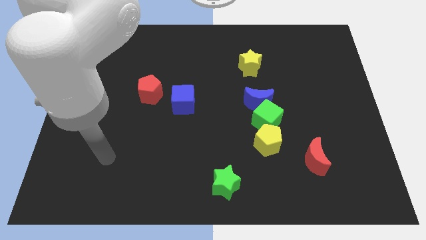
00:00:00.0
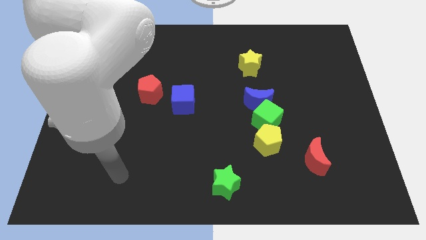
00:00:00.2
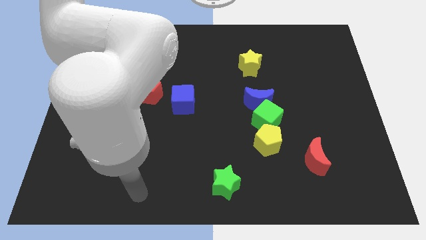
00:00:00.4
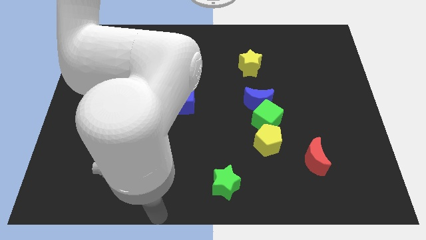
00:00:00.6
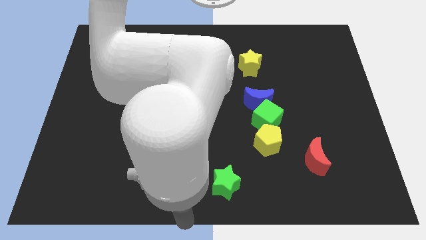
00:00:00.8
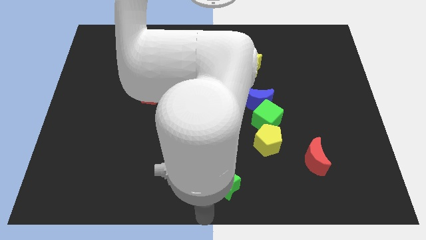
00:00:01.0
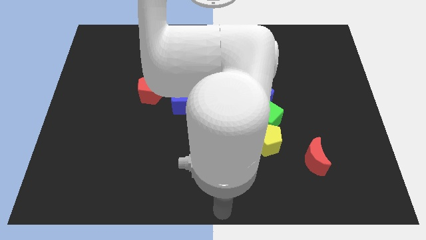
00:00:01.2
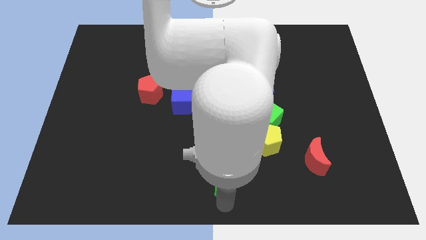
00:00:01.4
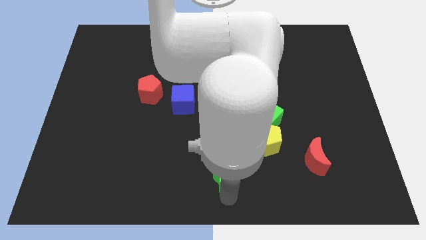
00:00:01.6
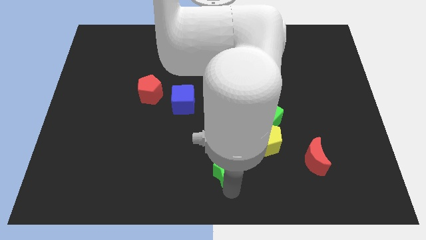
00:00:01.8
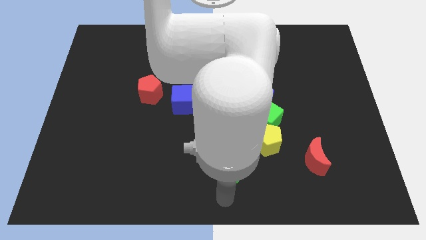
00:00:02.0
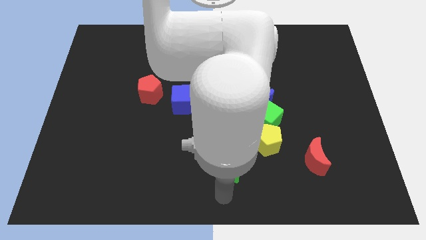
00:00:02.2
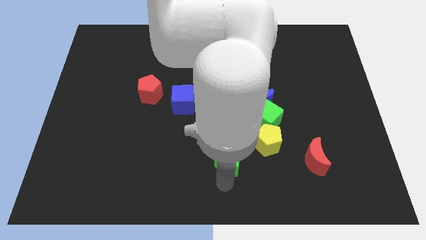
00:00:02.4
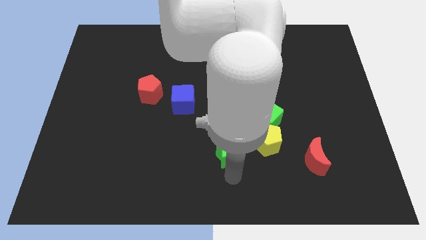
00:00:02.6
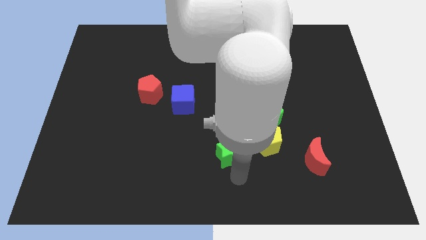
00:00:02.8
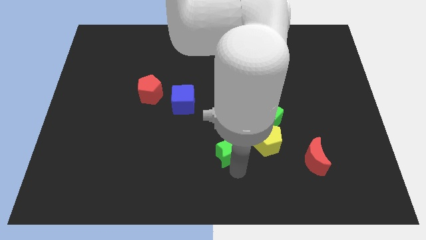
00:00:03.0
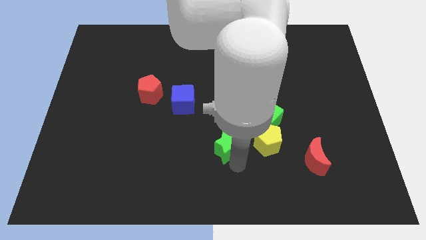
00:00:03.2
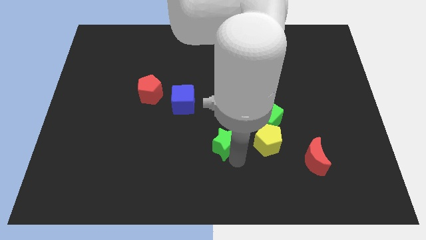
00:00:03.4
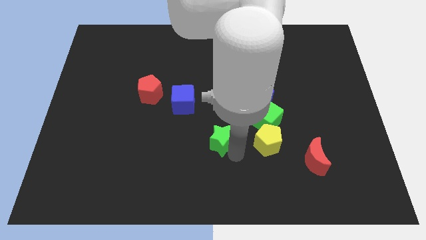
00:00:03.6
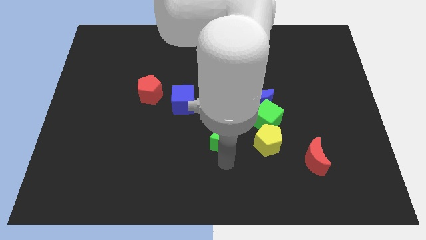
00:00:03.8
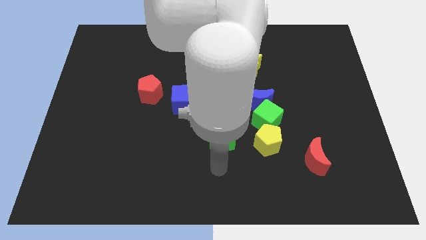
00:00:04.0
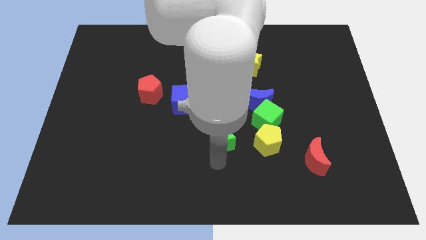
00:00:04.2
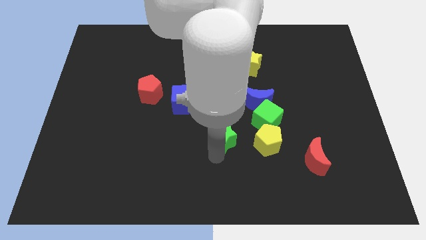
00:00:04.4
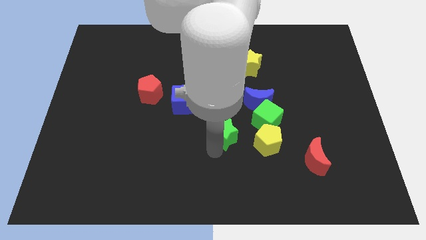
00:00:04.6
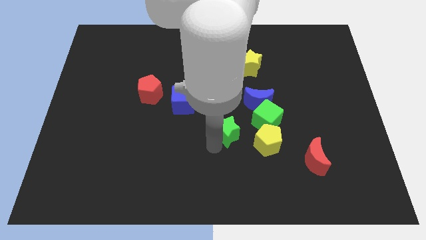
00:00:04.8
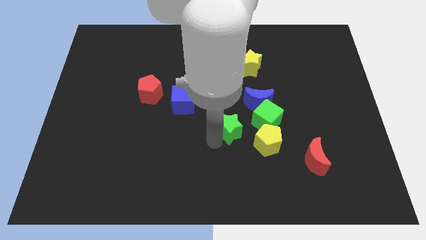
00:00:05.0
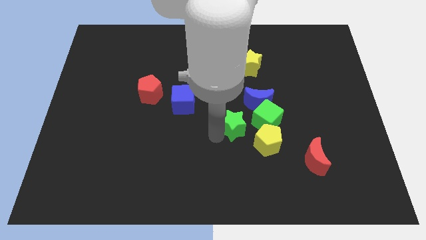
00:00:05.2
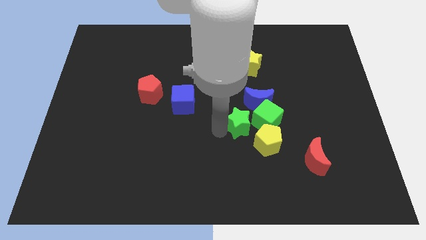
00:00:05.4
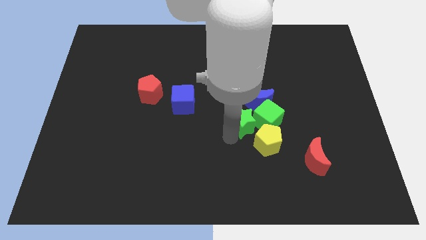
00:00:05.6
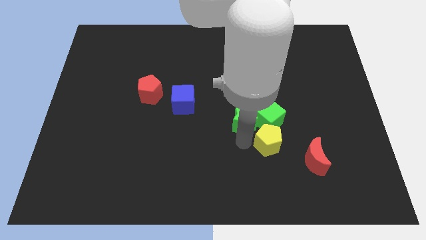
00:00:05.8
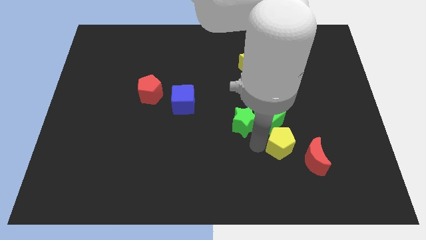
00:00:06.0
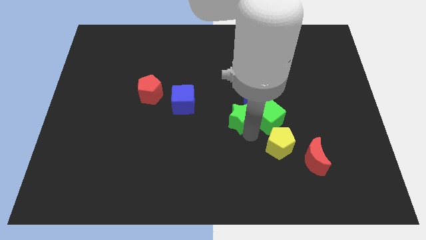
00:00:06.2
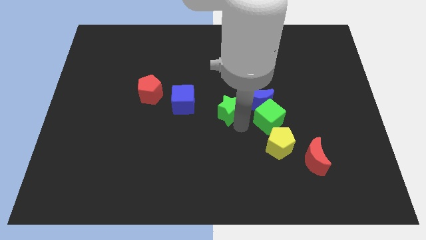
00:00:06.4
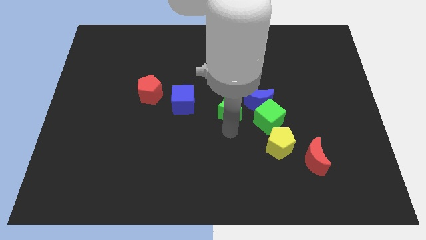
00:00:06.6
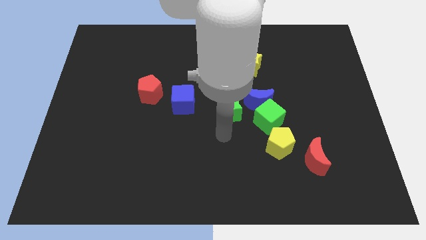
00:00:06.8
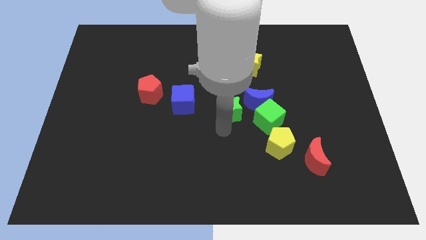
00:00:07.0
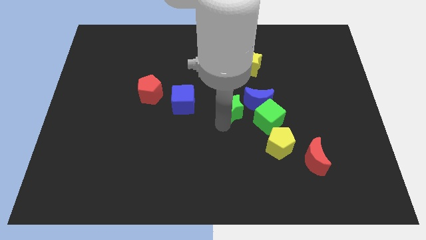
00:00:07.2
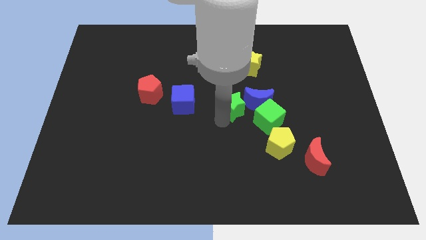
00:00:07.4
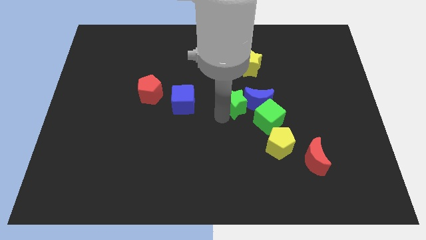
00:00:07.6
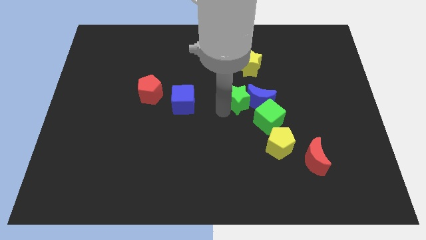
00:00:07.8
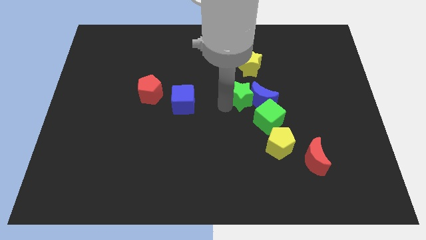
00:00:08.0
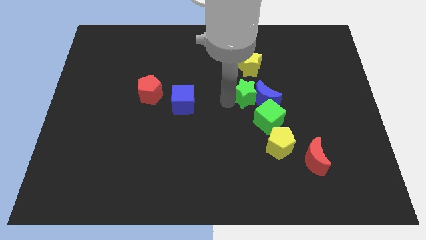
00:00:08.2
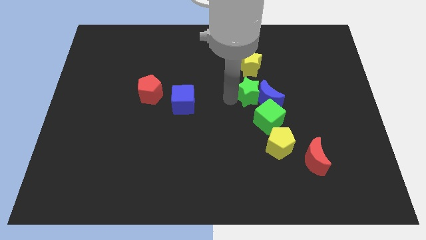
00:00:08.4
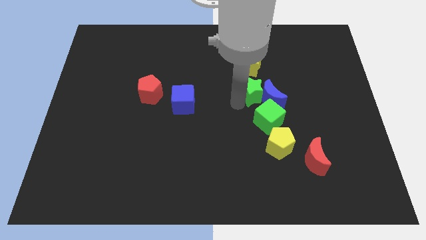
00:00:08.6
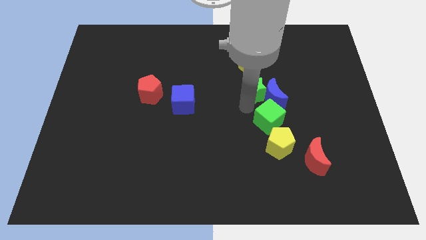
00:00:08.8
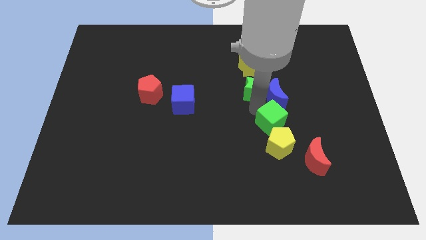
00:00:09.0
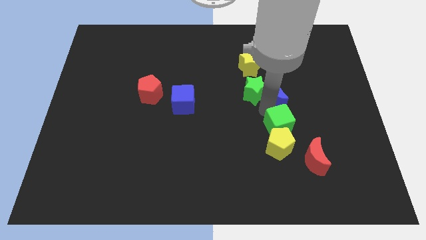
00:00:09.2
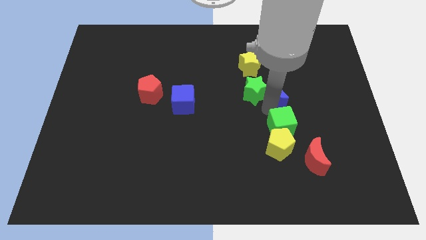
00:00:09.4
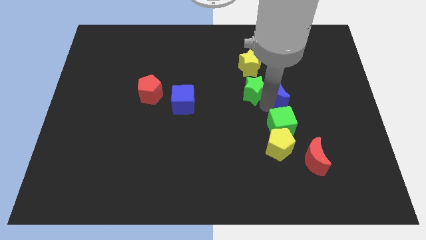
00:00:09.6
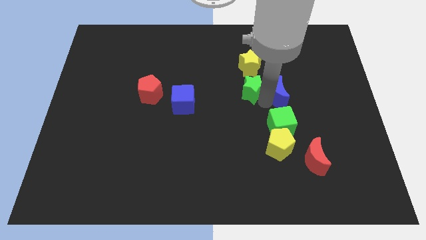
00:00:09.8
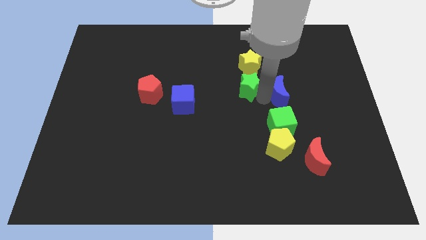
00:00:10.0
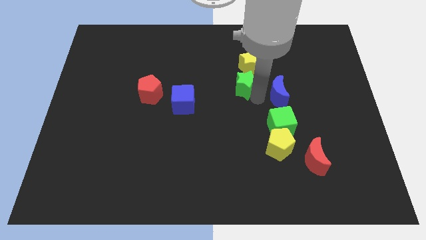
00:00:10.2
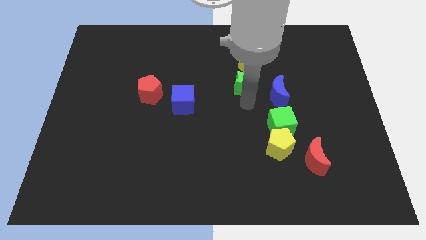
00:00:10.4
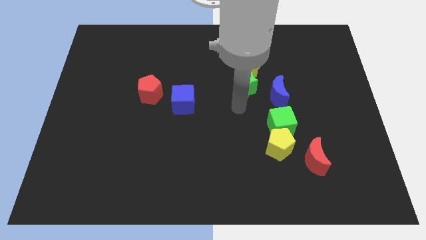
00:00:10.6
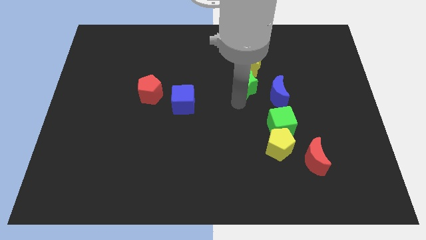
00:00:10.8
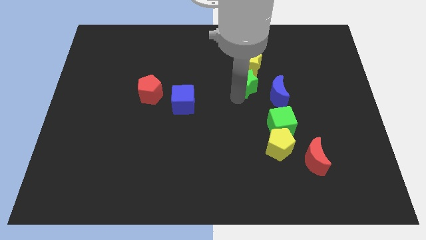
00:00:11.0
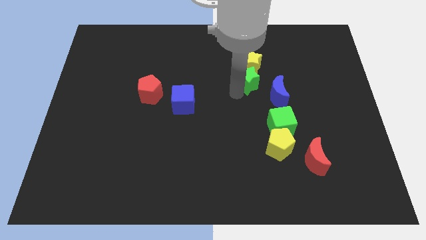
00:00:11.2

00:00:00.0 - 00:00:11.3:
slide the green star close to the yellow star

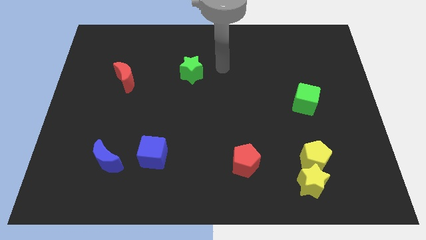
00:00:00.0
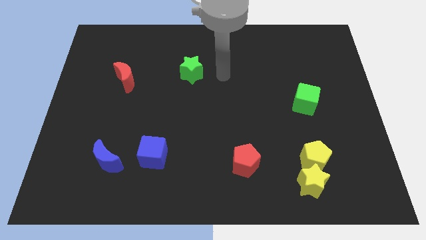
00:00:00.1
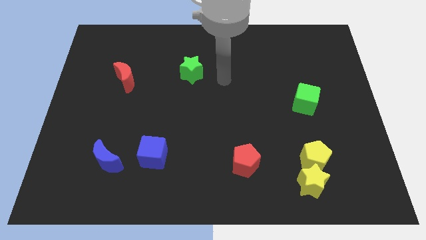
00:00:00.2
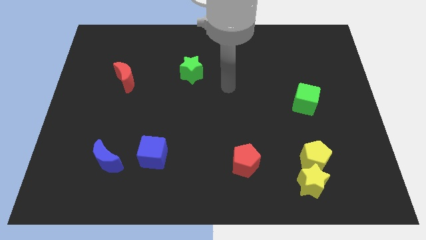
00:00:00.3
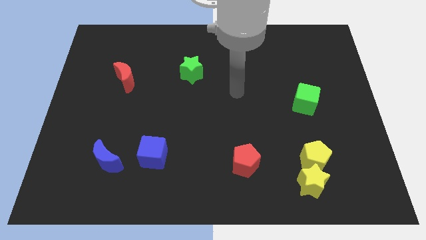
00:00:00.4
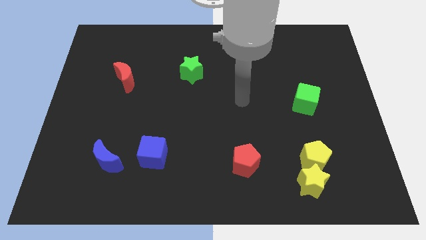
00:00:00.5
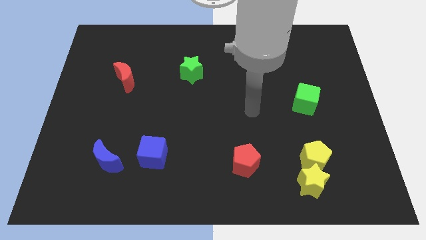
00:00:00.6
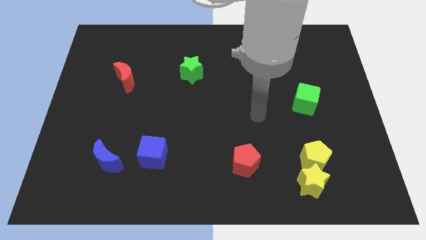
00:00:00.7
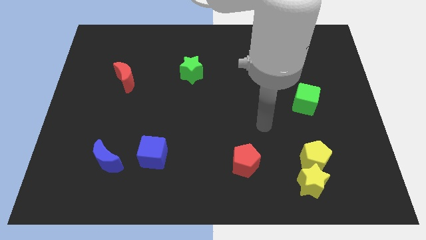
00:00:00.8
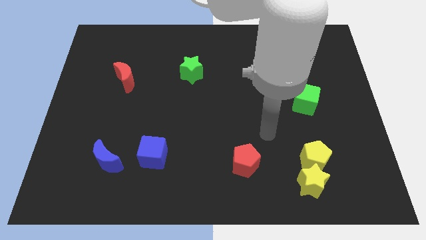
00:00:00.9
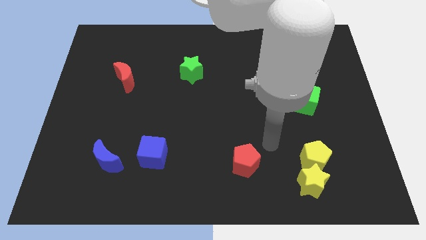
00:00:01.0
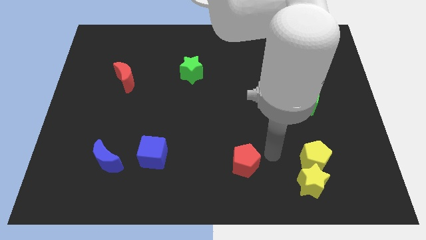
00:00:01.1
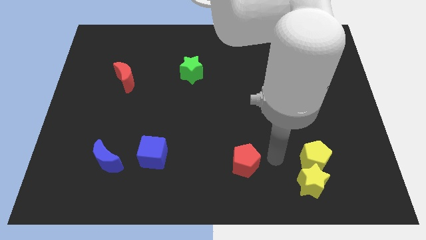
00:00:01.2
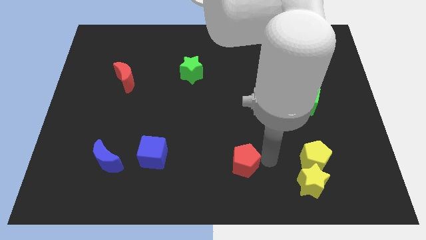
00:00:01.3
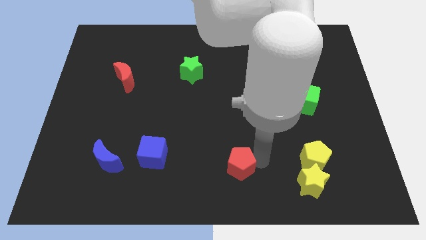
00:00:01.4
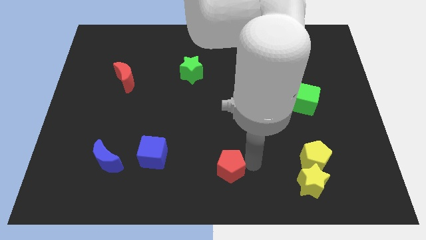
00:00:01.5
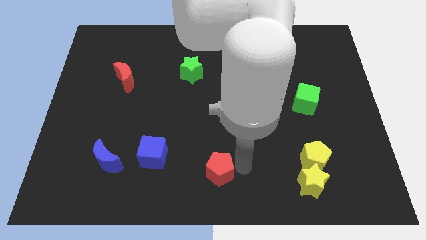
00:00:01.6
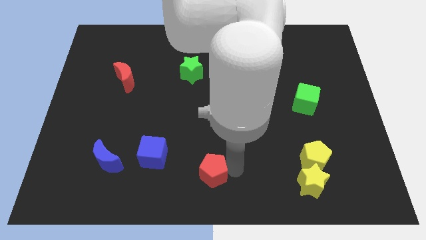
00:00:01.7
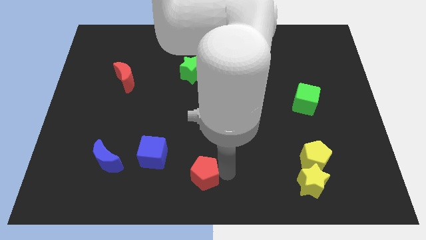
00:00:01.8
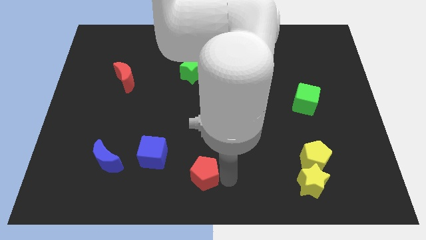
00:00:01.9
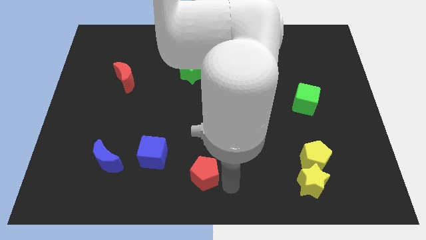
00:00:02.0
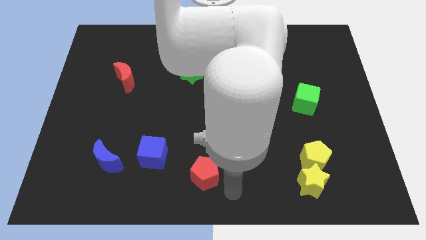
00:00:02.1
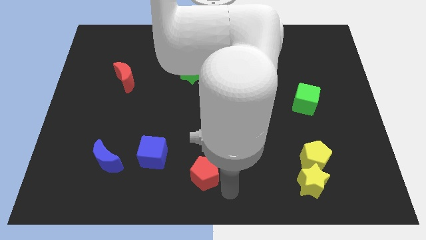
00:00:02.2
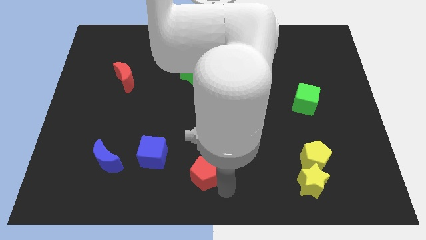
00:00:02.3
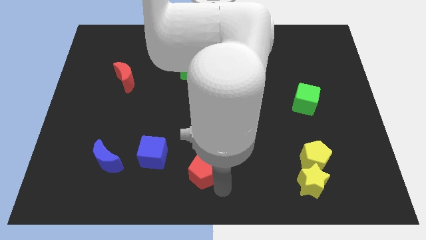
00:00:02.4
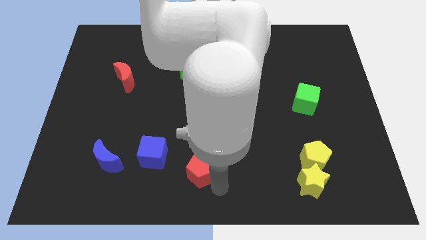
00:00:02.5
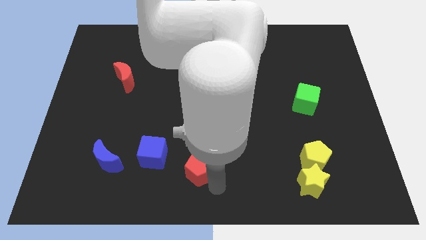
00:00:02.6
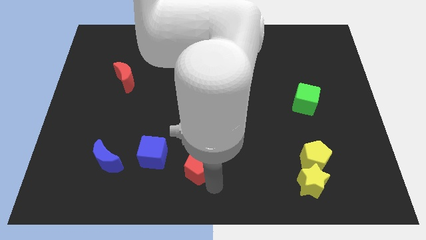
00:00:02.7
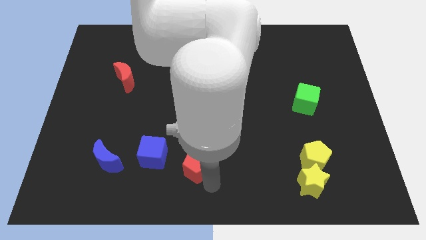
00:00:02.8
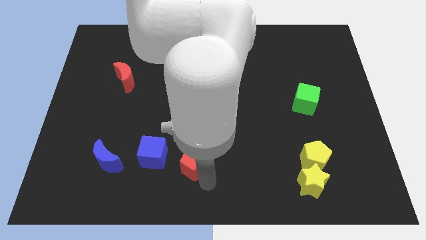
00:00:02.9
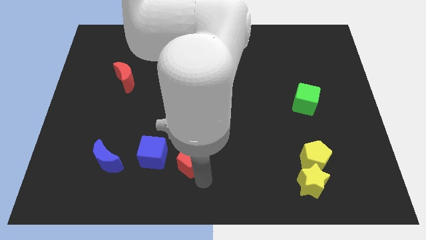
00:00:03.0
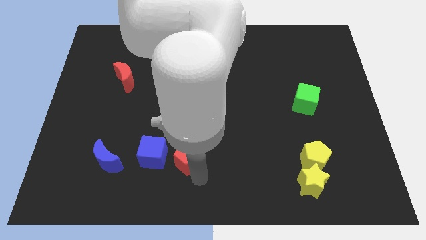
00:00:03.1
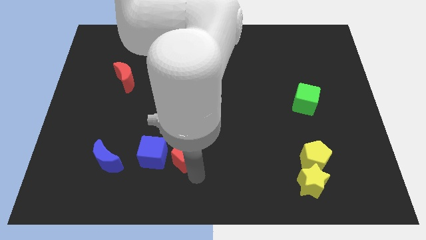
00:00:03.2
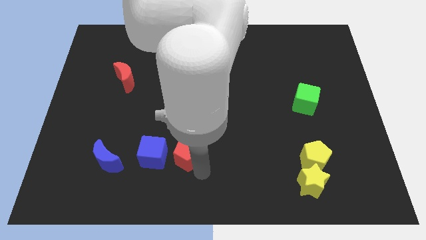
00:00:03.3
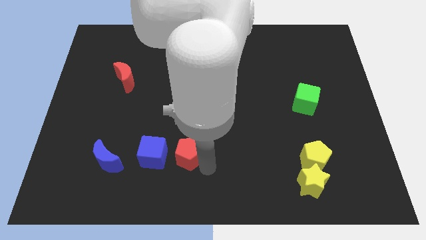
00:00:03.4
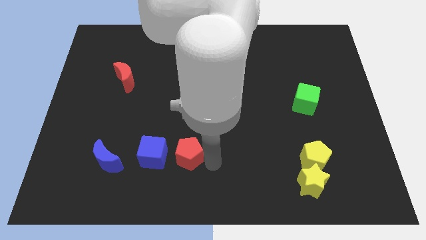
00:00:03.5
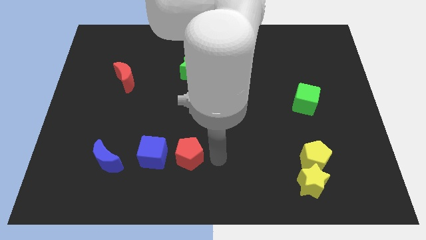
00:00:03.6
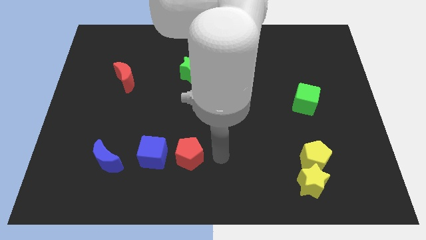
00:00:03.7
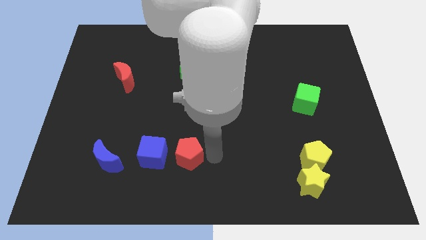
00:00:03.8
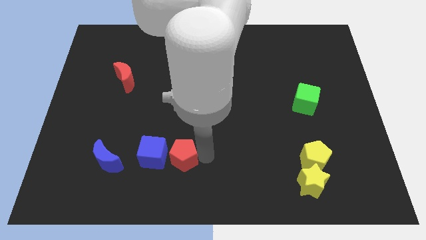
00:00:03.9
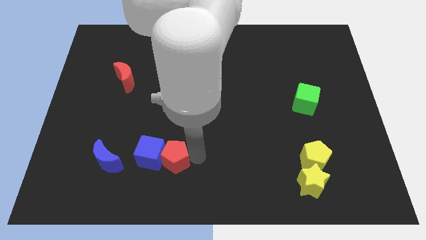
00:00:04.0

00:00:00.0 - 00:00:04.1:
push the red pentagon next to the blue cube
